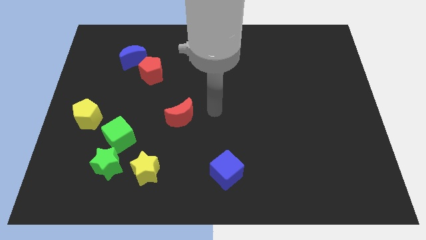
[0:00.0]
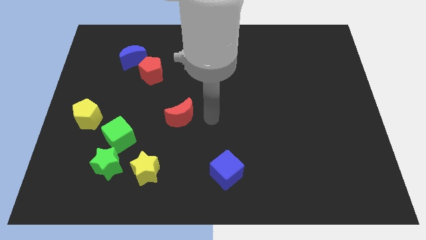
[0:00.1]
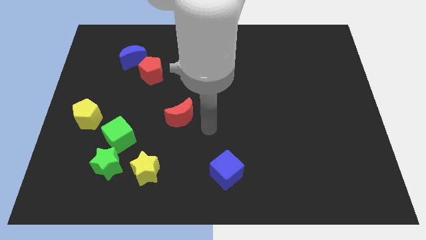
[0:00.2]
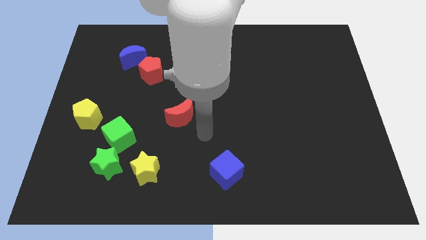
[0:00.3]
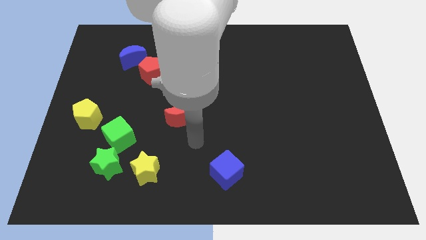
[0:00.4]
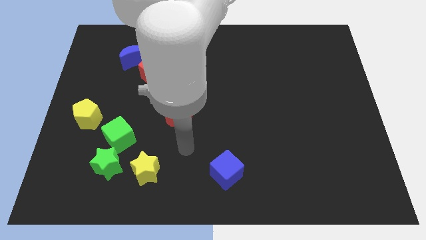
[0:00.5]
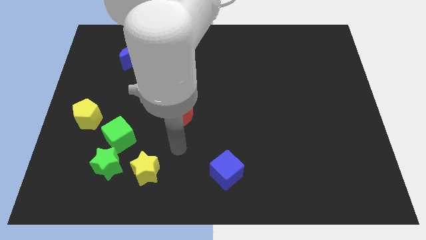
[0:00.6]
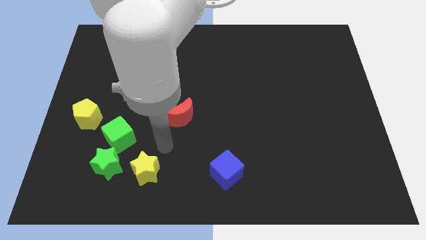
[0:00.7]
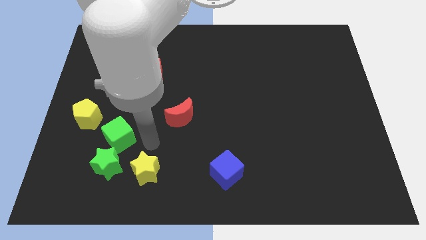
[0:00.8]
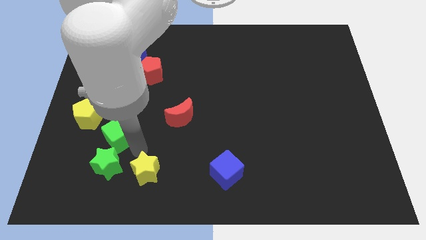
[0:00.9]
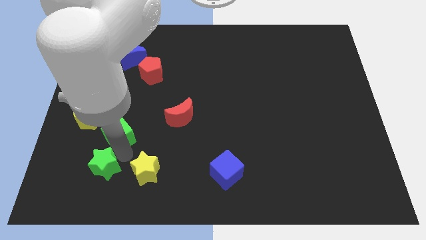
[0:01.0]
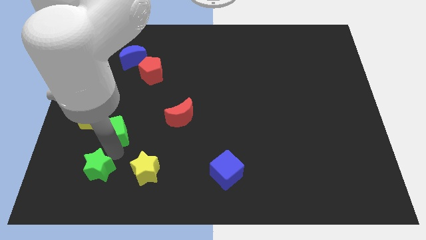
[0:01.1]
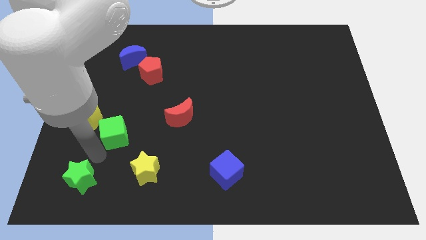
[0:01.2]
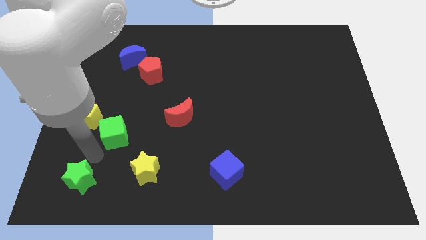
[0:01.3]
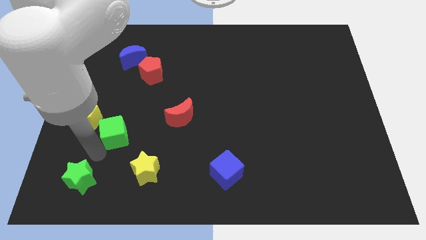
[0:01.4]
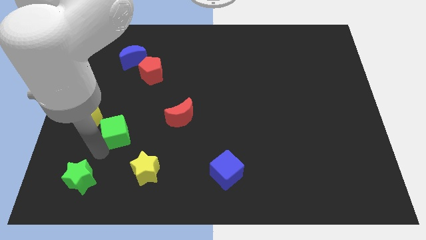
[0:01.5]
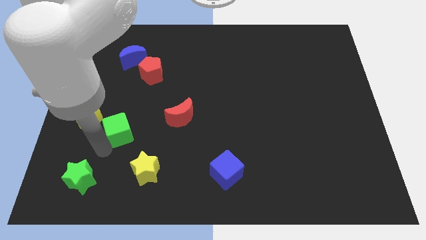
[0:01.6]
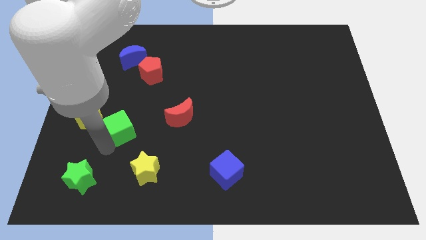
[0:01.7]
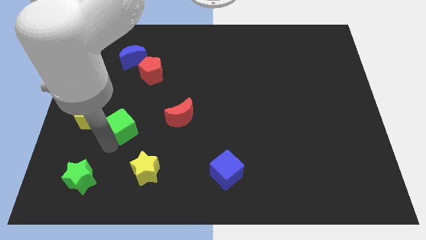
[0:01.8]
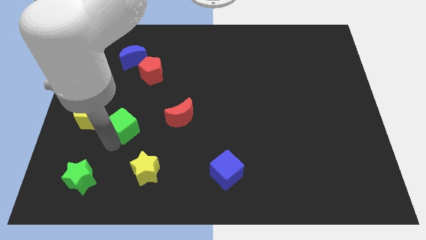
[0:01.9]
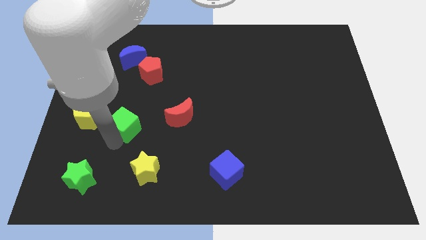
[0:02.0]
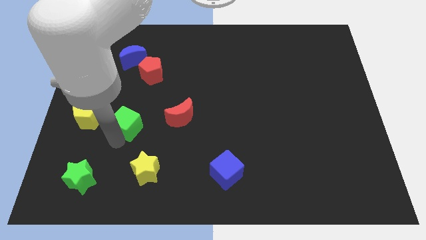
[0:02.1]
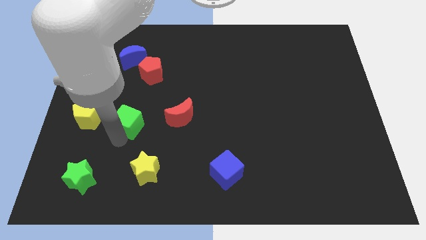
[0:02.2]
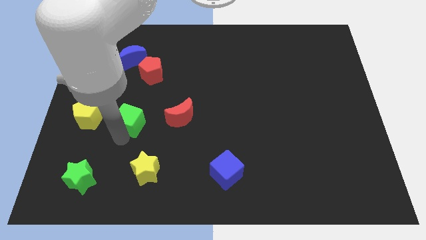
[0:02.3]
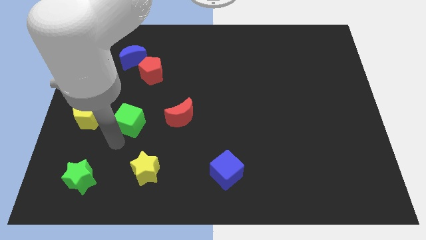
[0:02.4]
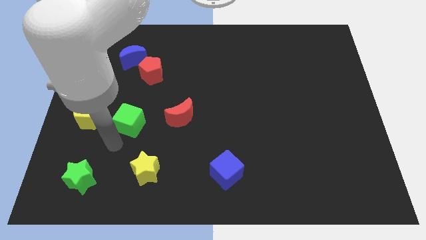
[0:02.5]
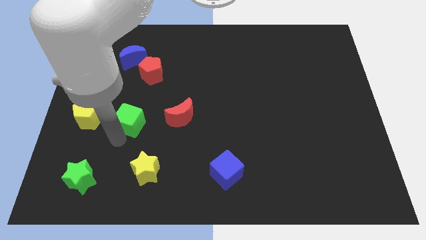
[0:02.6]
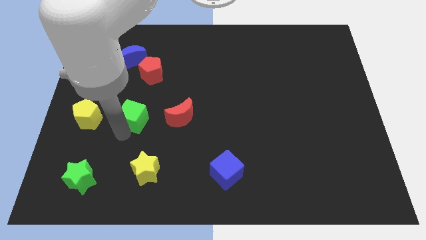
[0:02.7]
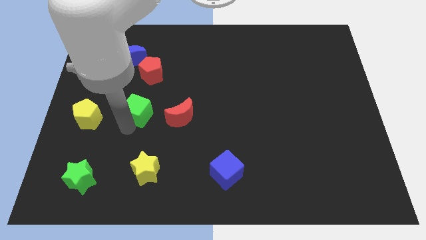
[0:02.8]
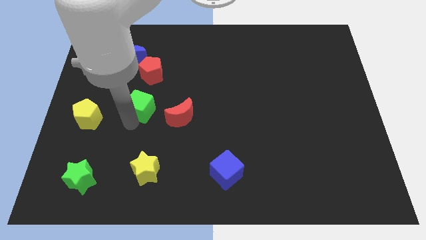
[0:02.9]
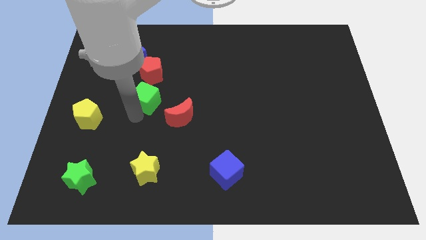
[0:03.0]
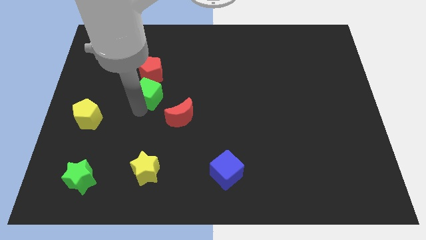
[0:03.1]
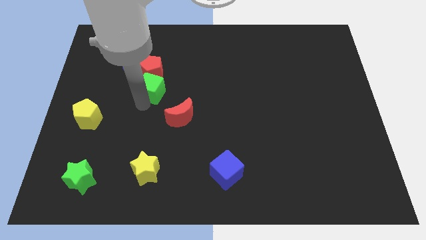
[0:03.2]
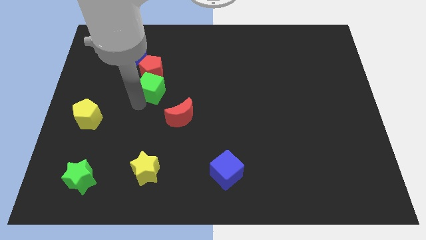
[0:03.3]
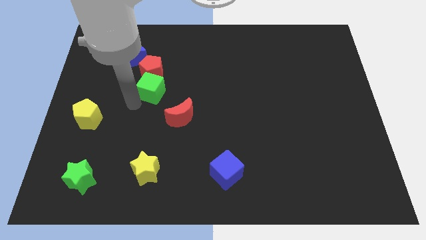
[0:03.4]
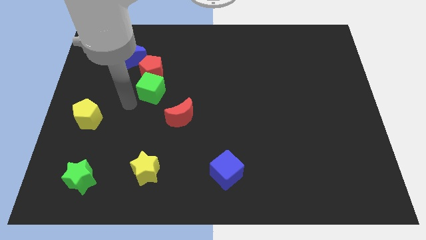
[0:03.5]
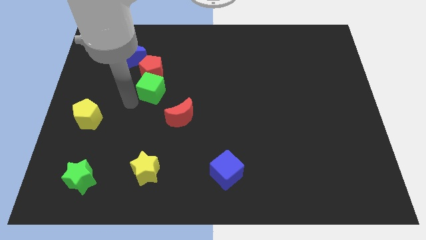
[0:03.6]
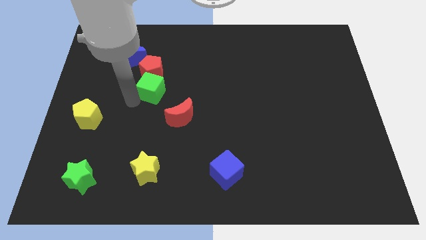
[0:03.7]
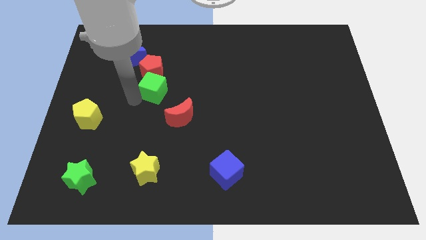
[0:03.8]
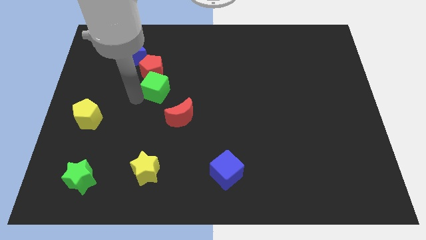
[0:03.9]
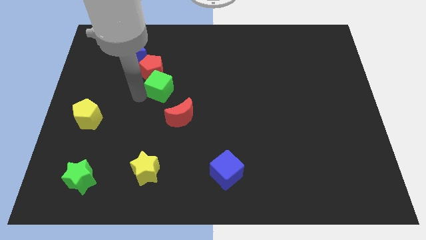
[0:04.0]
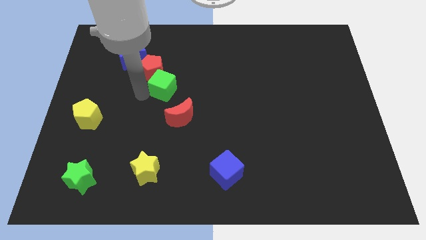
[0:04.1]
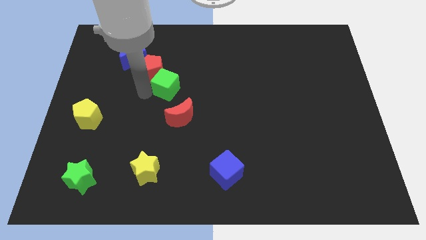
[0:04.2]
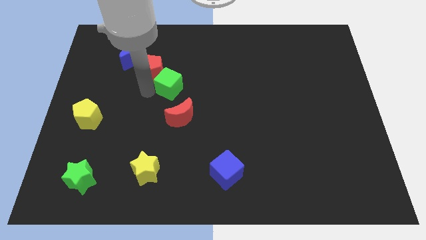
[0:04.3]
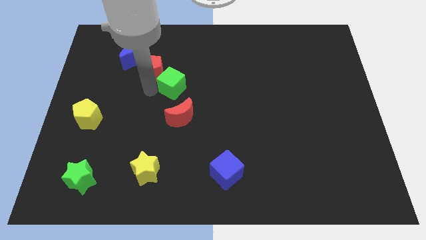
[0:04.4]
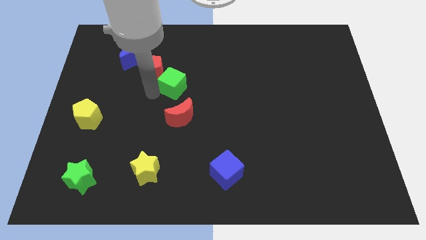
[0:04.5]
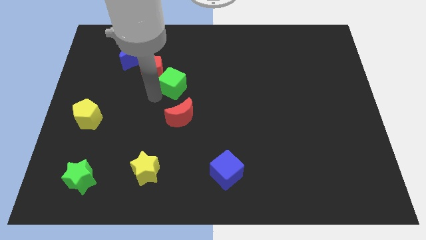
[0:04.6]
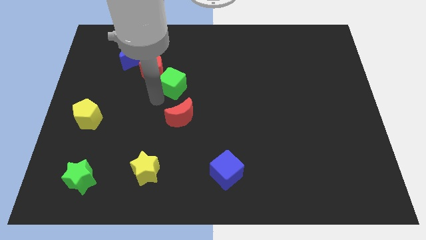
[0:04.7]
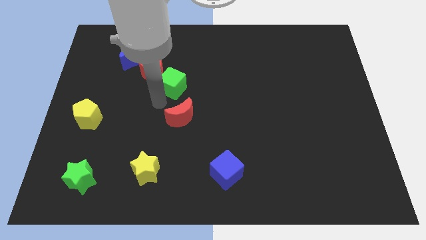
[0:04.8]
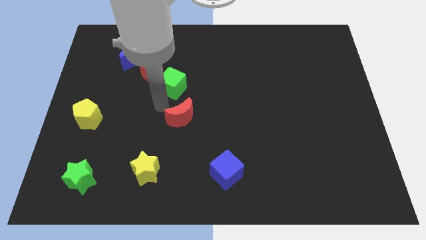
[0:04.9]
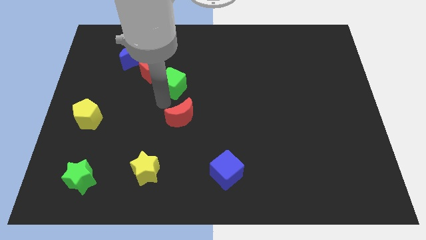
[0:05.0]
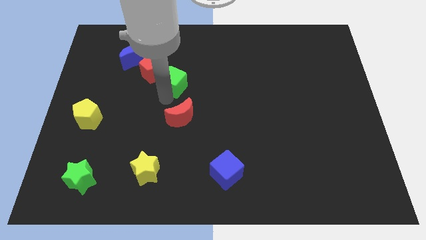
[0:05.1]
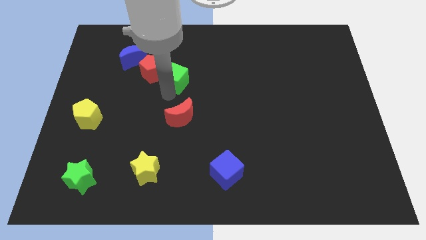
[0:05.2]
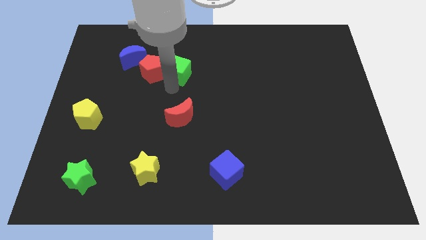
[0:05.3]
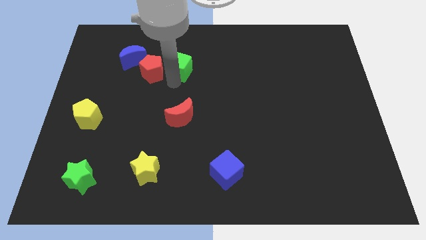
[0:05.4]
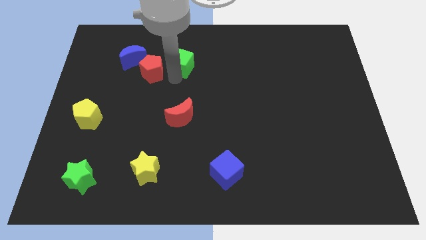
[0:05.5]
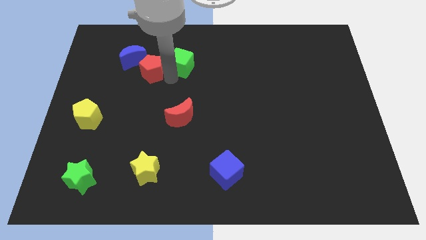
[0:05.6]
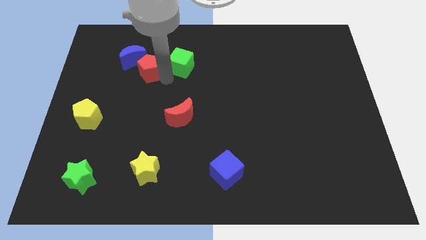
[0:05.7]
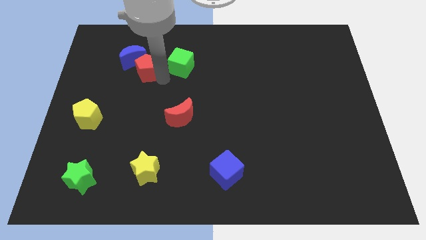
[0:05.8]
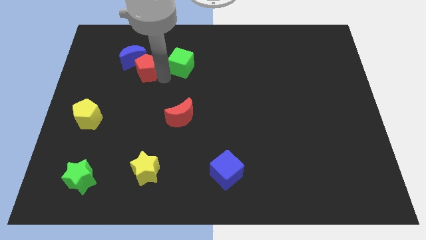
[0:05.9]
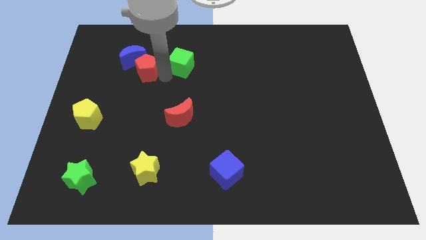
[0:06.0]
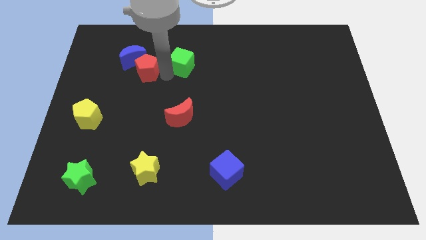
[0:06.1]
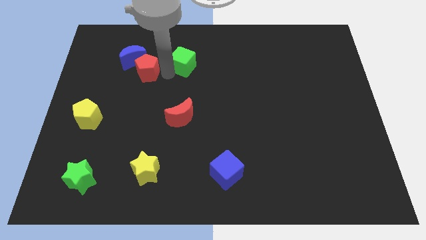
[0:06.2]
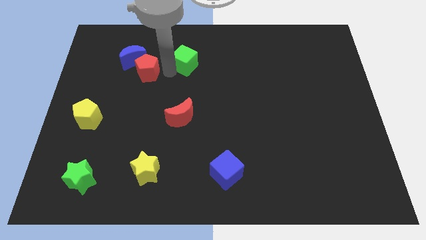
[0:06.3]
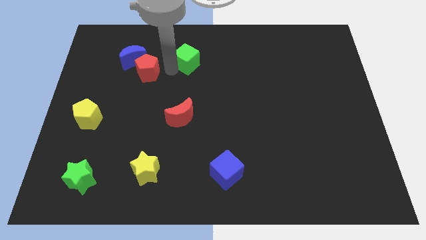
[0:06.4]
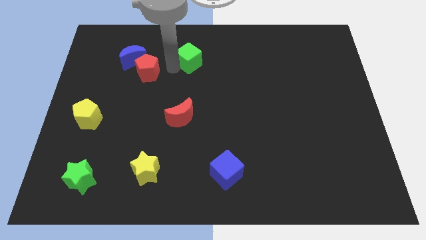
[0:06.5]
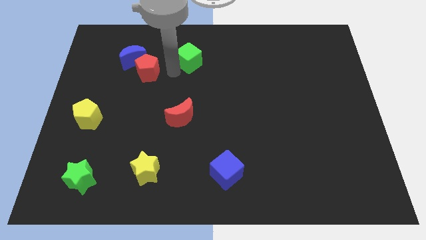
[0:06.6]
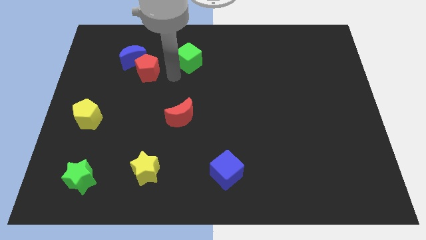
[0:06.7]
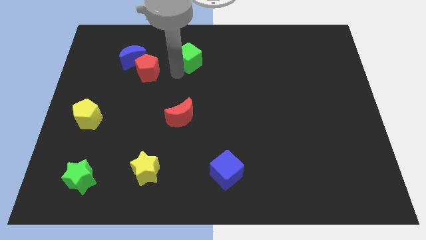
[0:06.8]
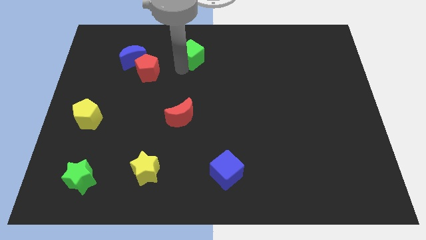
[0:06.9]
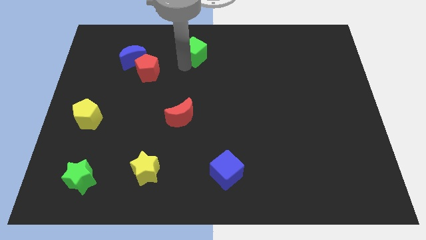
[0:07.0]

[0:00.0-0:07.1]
move the green cube to the top
